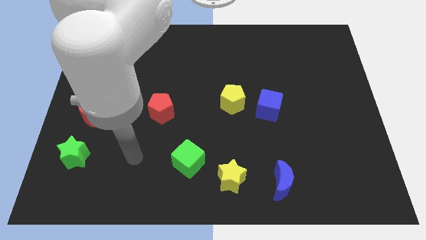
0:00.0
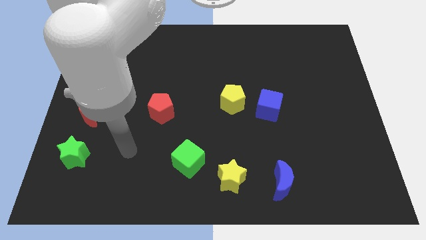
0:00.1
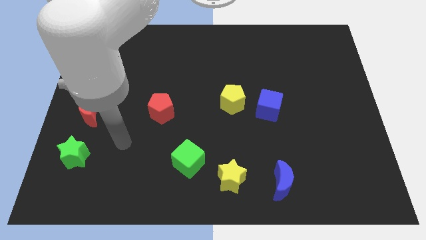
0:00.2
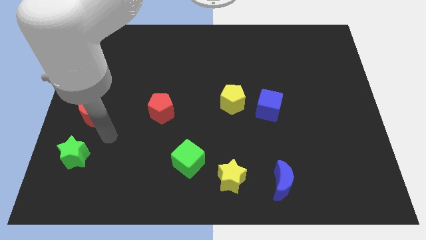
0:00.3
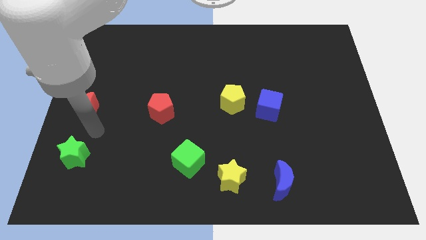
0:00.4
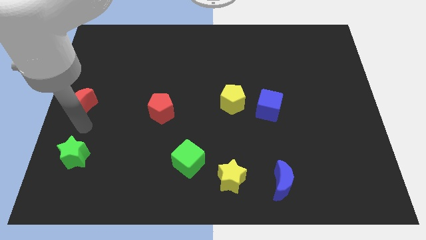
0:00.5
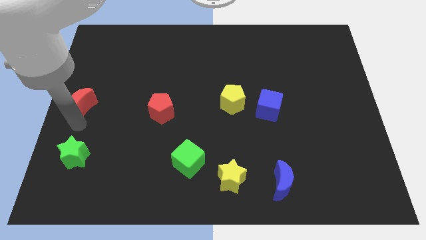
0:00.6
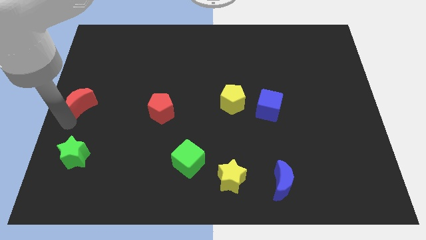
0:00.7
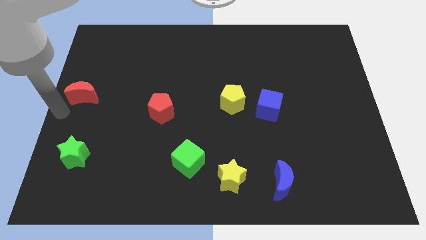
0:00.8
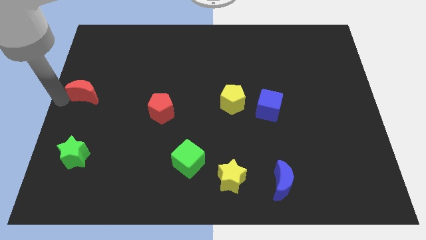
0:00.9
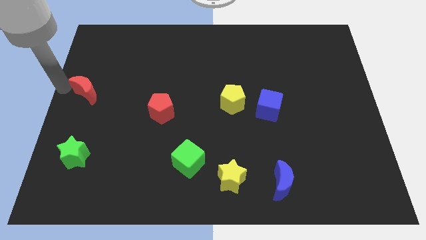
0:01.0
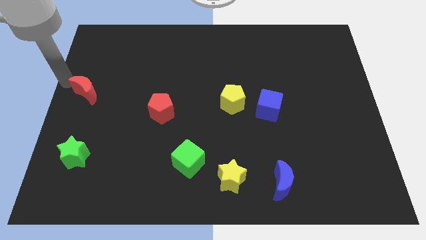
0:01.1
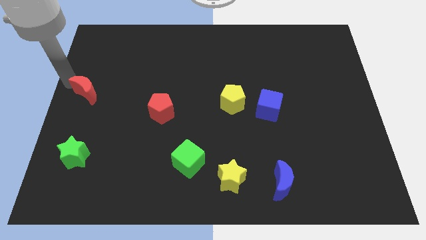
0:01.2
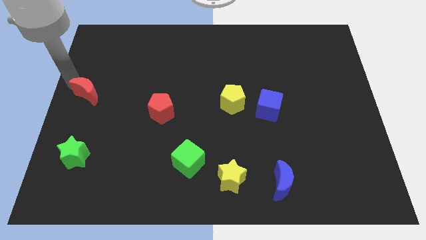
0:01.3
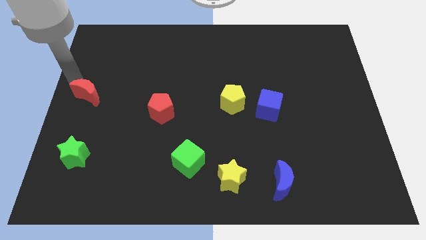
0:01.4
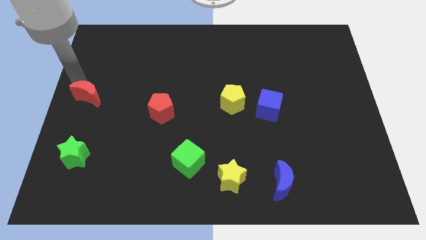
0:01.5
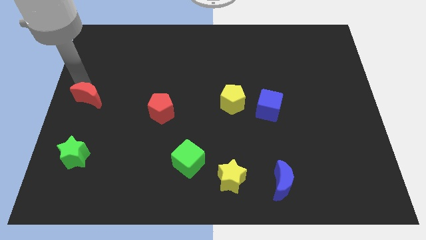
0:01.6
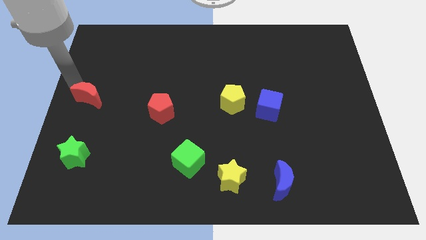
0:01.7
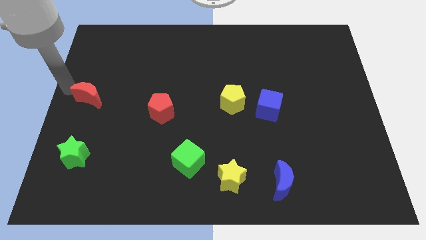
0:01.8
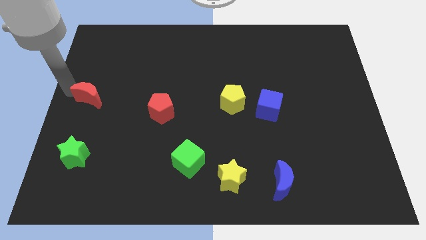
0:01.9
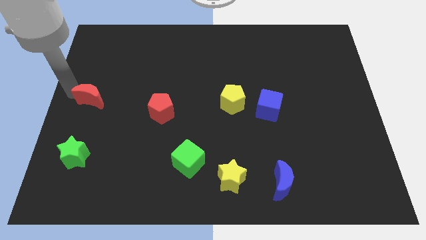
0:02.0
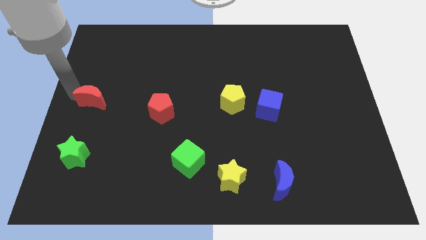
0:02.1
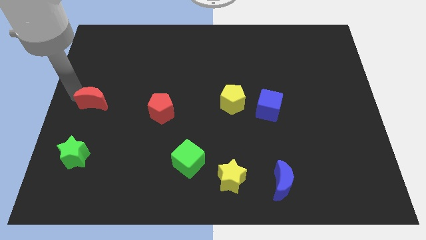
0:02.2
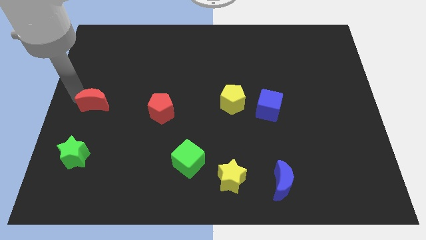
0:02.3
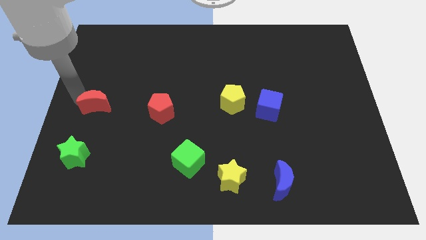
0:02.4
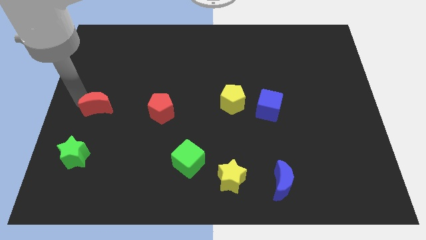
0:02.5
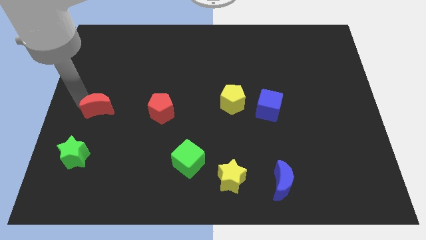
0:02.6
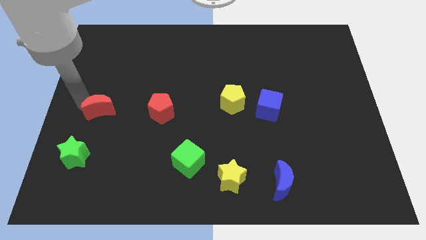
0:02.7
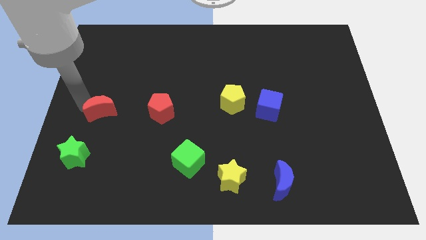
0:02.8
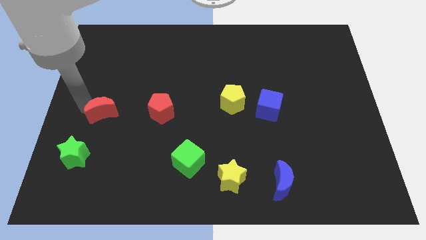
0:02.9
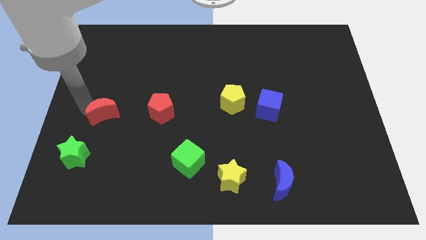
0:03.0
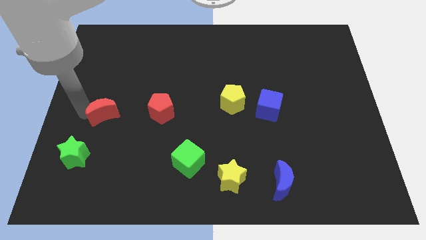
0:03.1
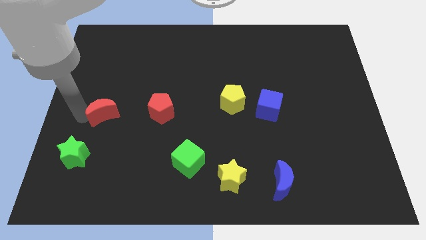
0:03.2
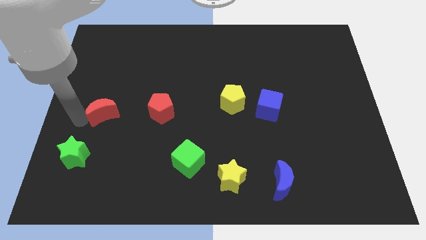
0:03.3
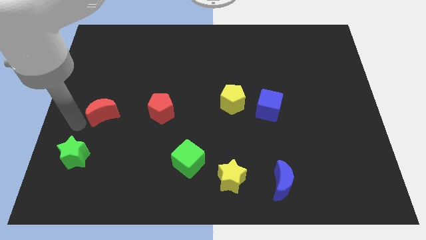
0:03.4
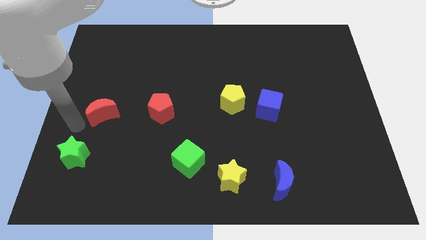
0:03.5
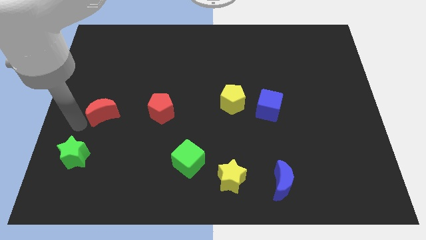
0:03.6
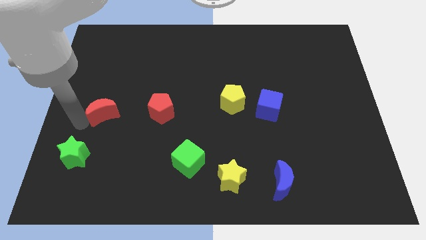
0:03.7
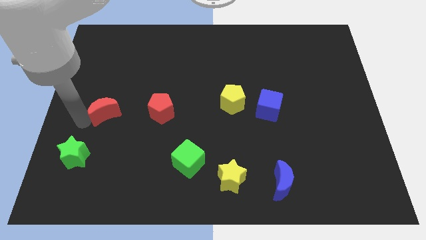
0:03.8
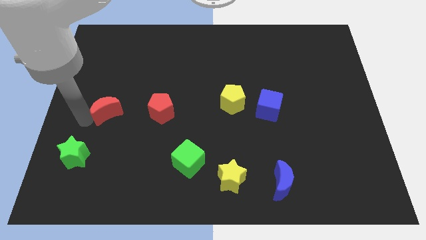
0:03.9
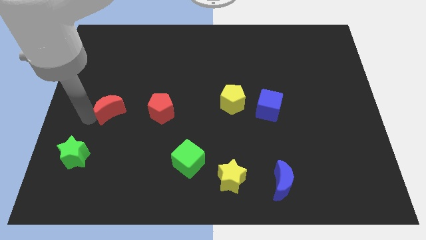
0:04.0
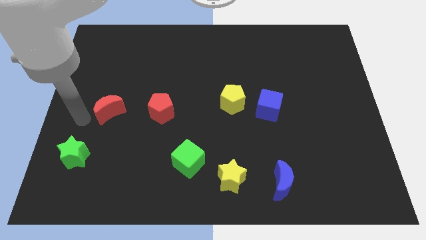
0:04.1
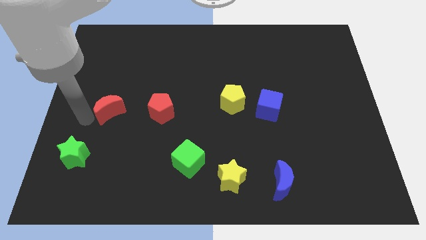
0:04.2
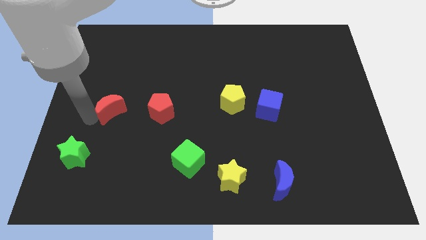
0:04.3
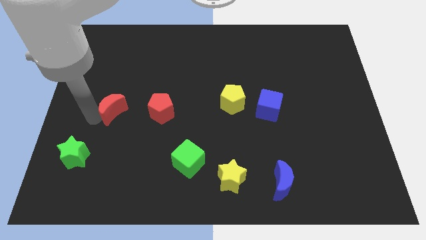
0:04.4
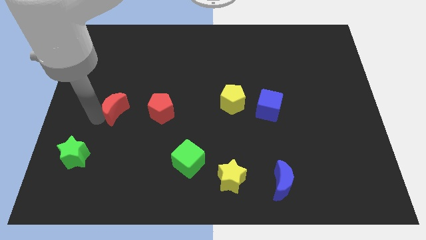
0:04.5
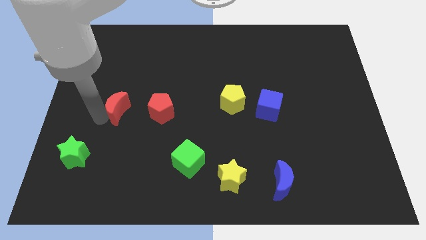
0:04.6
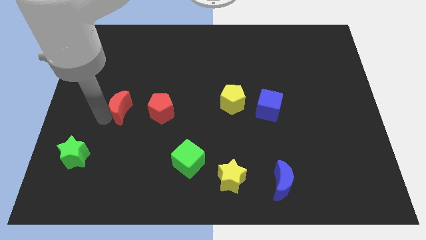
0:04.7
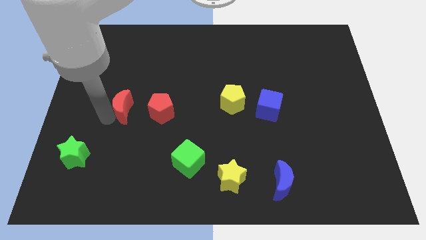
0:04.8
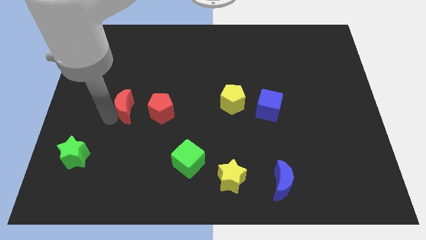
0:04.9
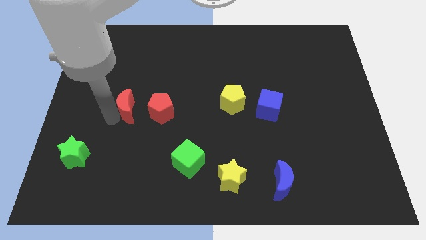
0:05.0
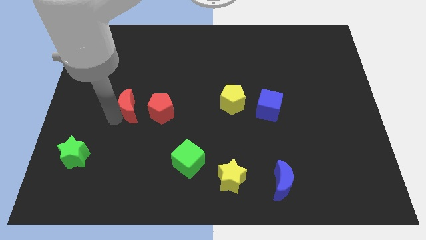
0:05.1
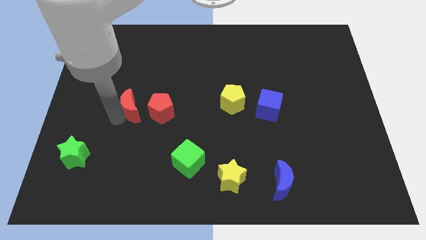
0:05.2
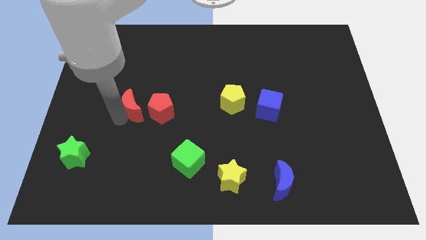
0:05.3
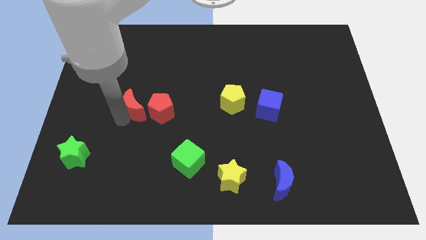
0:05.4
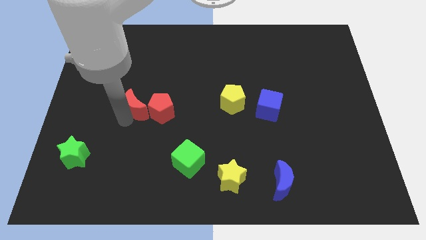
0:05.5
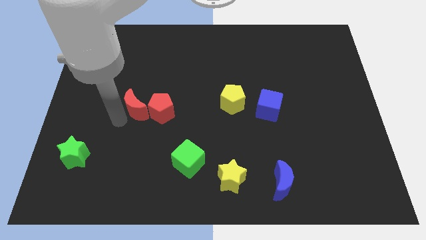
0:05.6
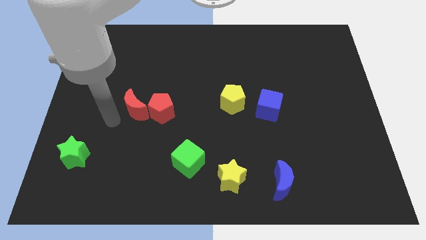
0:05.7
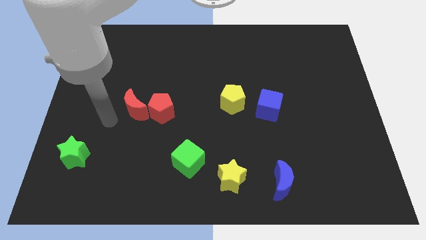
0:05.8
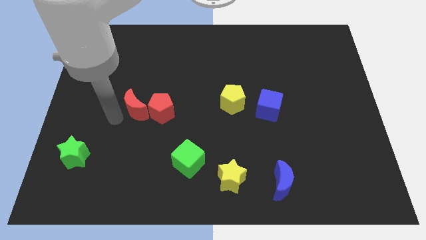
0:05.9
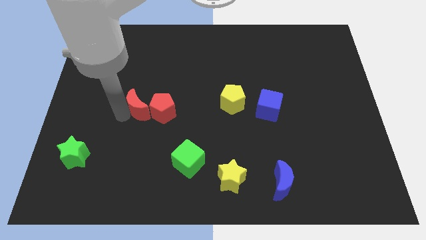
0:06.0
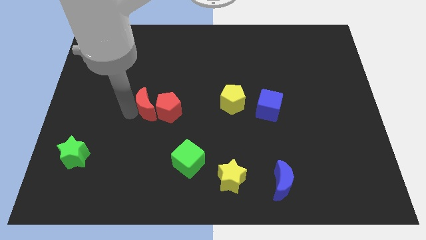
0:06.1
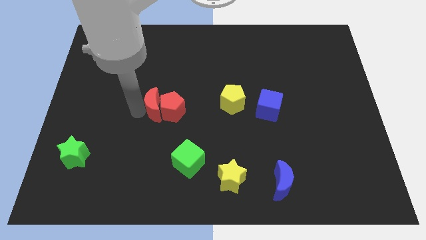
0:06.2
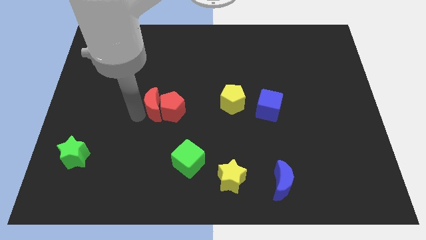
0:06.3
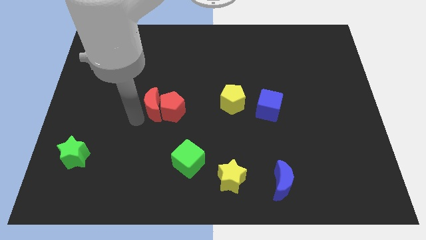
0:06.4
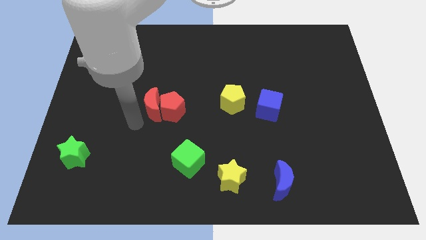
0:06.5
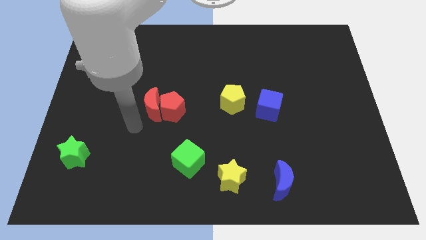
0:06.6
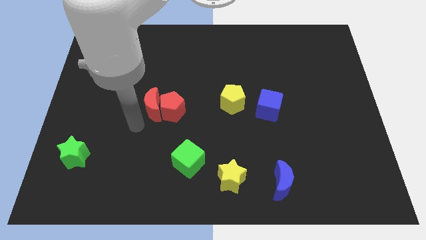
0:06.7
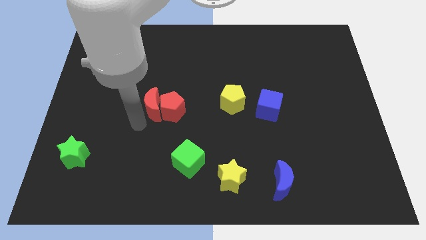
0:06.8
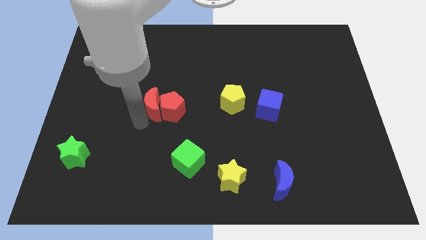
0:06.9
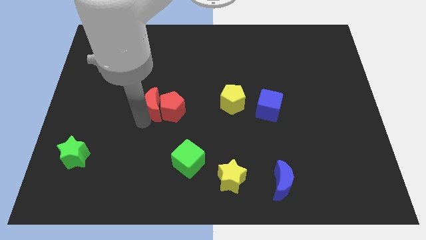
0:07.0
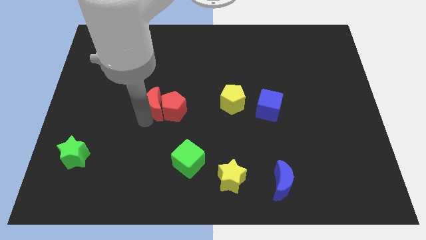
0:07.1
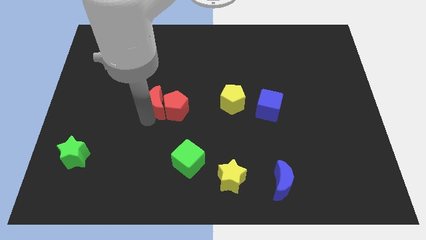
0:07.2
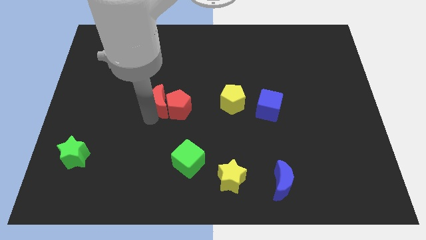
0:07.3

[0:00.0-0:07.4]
put the red moon to the middle of the board

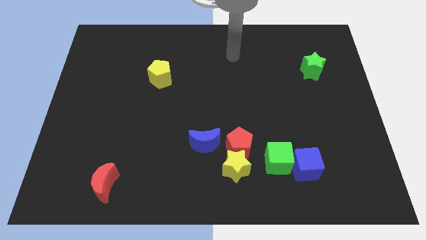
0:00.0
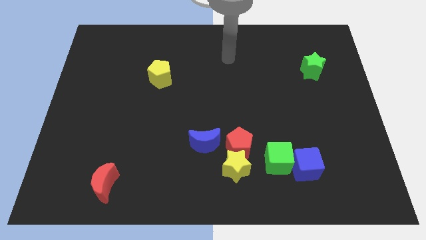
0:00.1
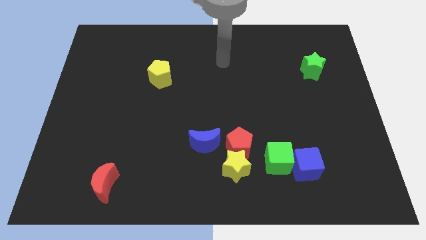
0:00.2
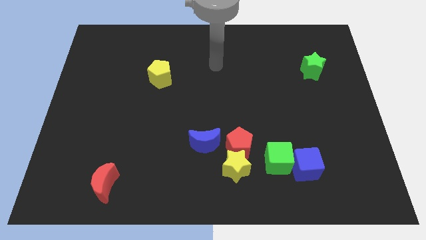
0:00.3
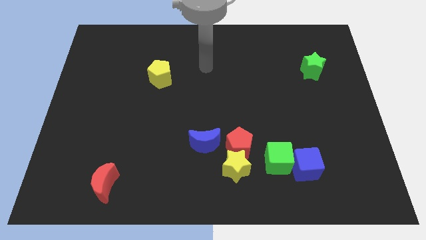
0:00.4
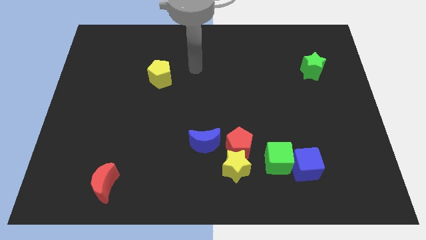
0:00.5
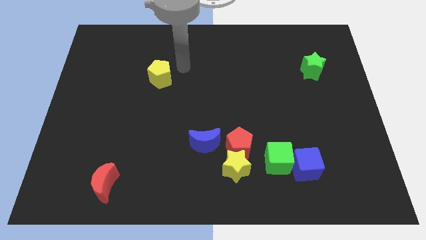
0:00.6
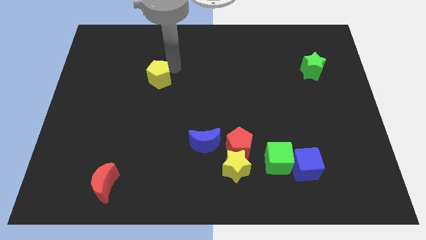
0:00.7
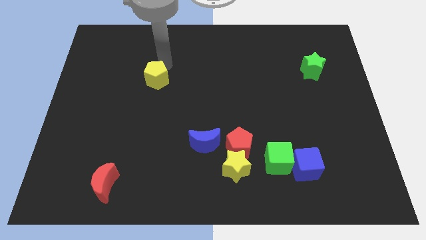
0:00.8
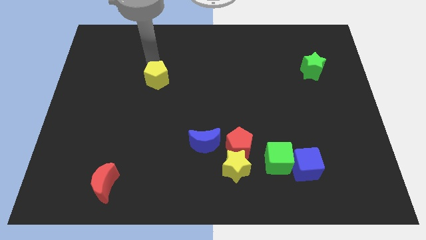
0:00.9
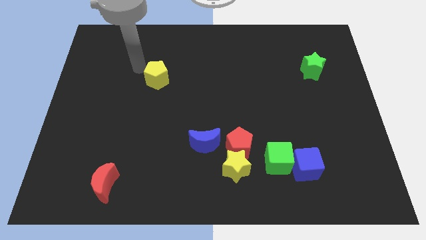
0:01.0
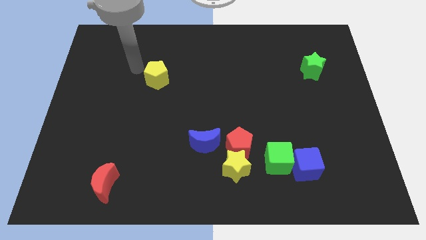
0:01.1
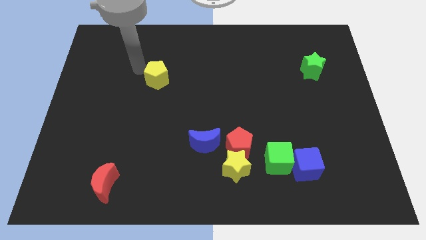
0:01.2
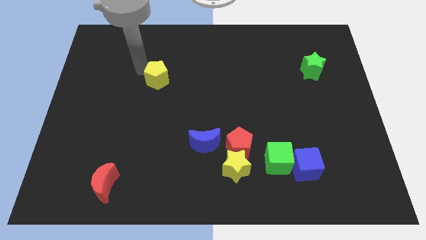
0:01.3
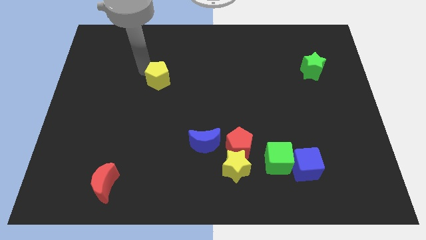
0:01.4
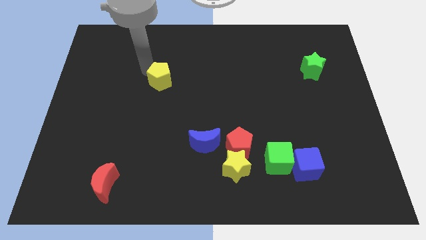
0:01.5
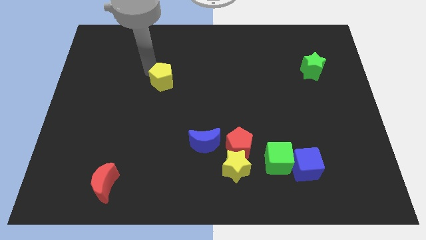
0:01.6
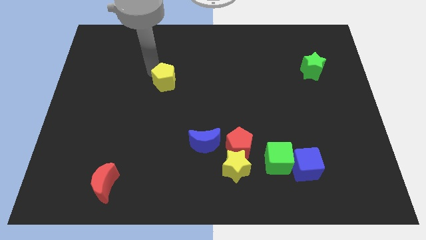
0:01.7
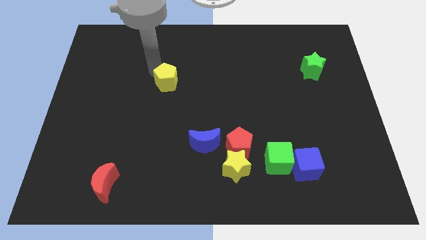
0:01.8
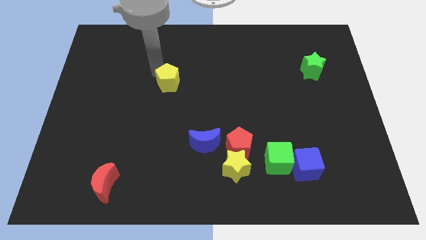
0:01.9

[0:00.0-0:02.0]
put the yellow pentagon to the middle of the board
